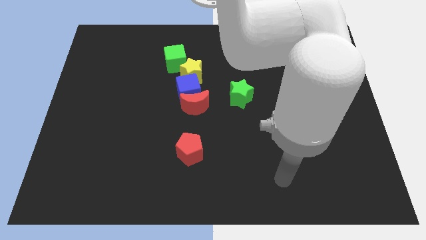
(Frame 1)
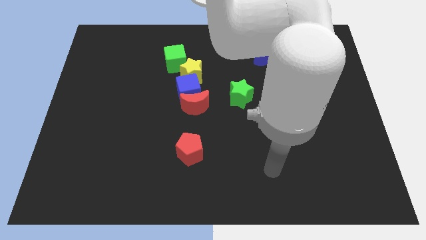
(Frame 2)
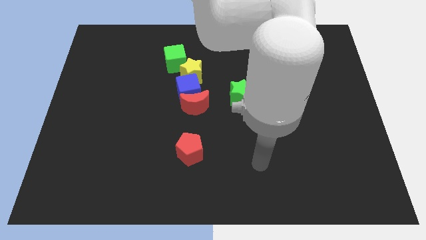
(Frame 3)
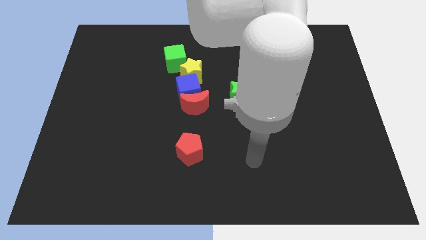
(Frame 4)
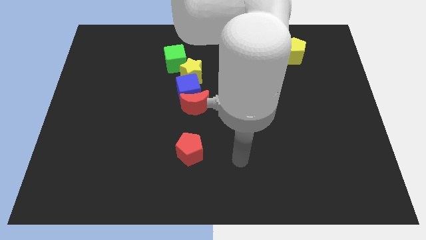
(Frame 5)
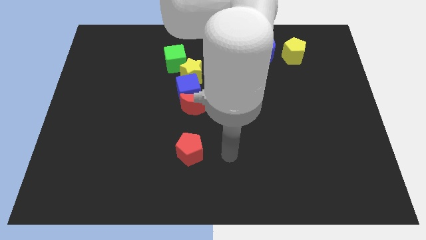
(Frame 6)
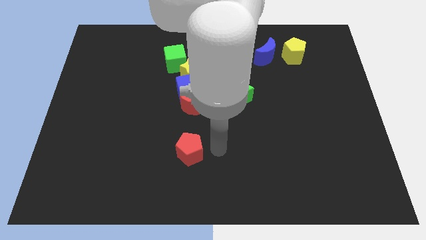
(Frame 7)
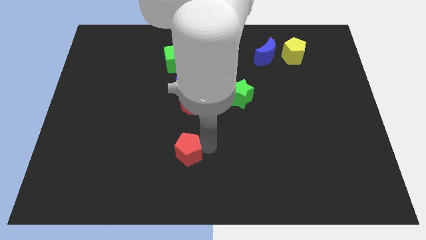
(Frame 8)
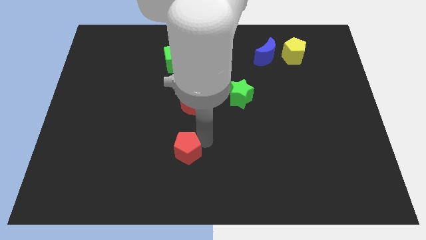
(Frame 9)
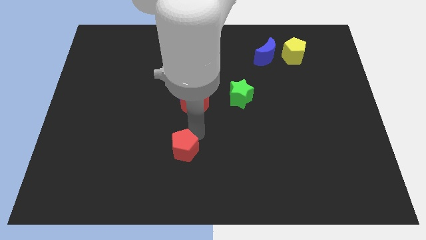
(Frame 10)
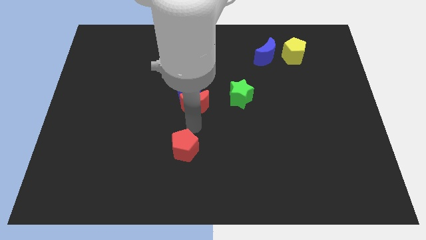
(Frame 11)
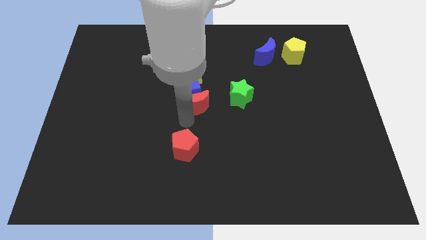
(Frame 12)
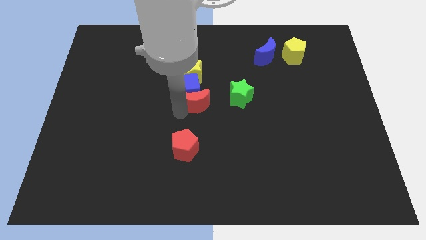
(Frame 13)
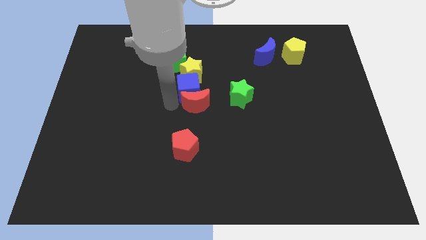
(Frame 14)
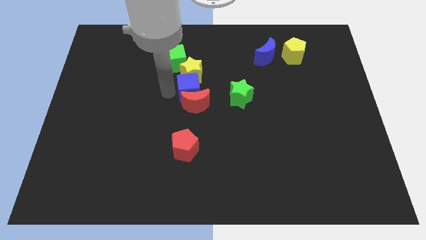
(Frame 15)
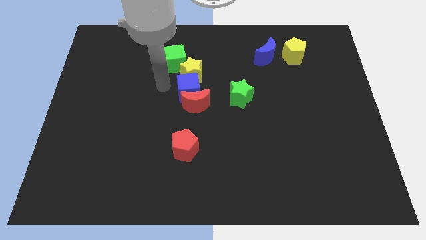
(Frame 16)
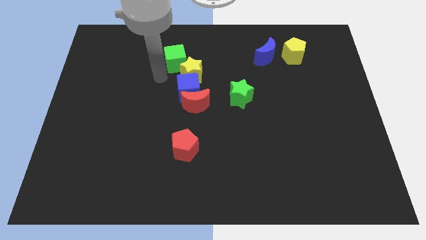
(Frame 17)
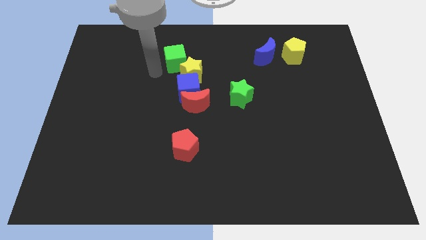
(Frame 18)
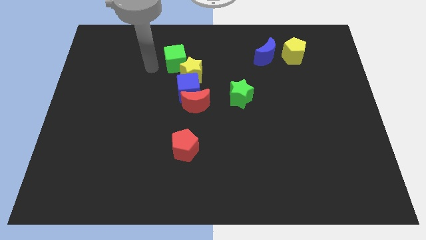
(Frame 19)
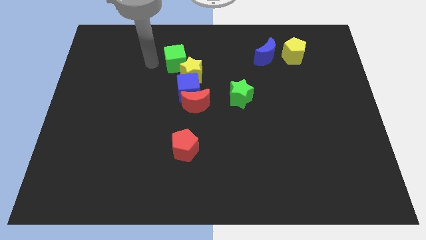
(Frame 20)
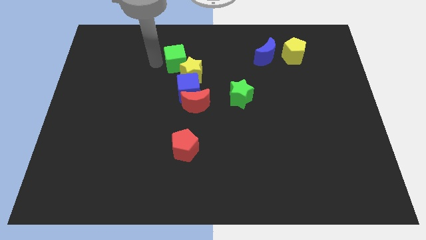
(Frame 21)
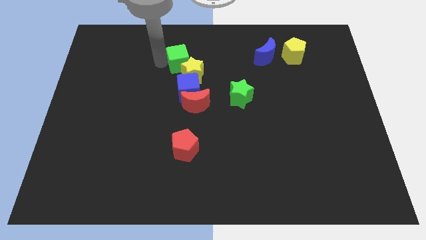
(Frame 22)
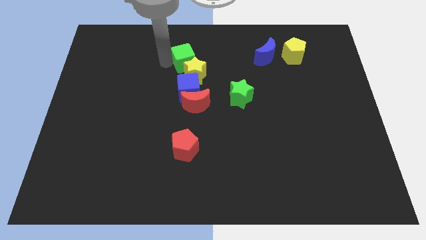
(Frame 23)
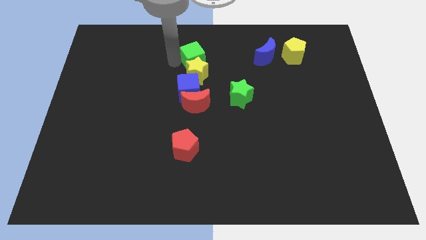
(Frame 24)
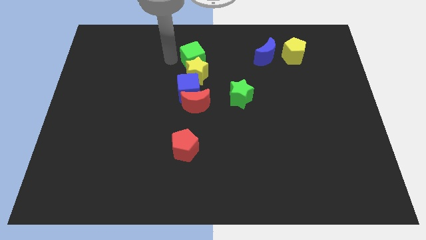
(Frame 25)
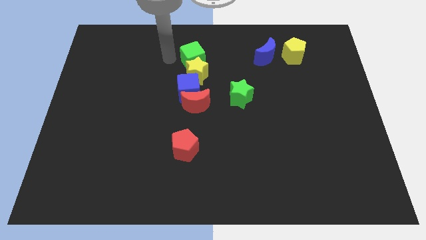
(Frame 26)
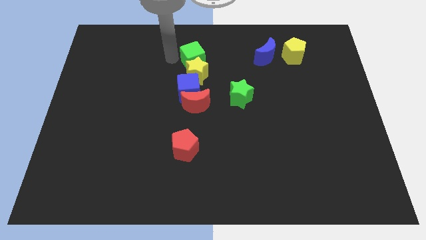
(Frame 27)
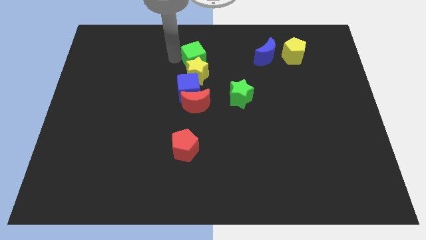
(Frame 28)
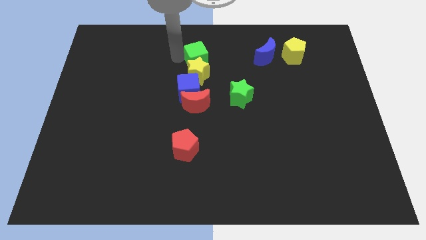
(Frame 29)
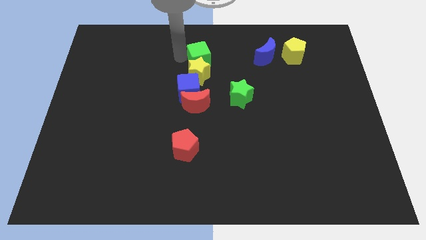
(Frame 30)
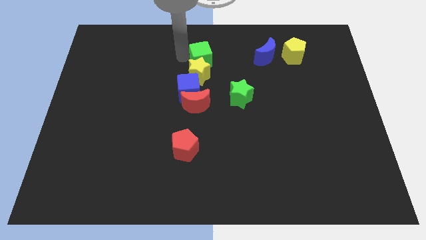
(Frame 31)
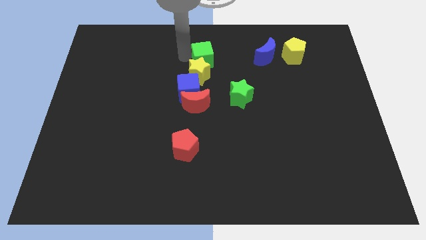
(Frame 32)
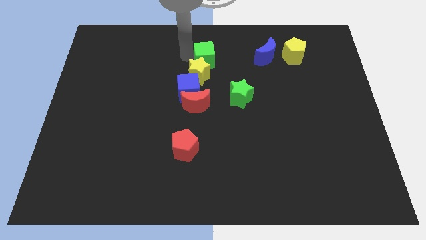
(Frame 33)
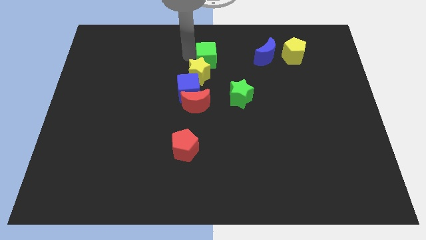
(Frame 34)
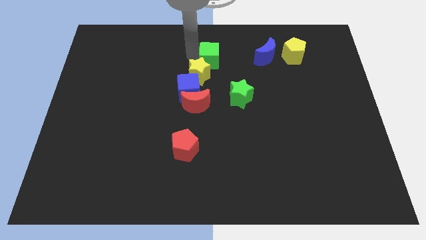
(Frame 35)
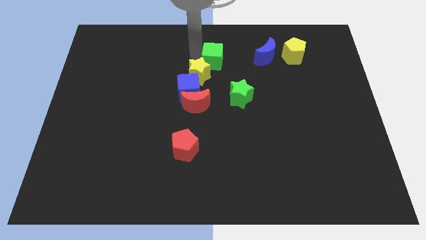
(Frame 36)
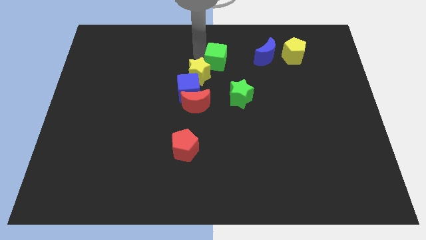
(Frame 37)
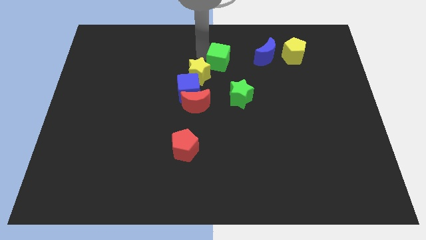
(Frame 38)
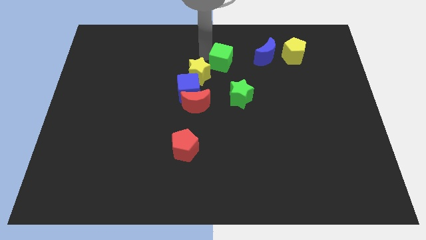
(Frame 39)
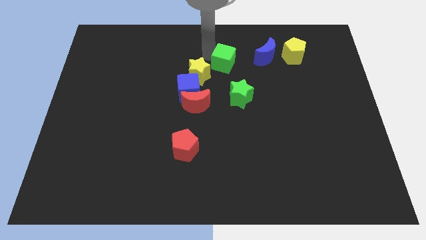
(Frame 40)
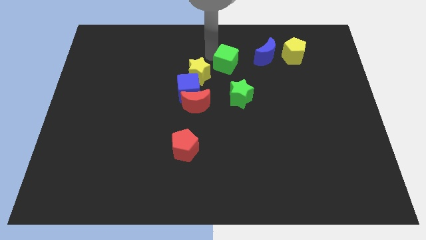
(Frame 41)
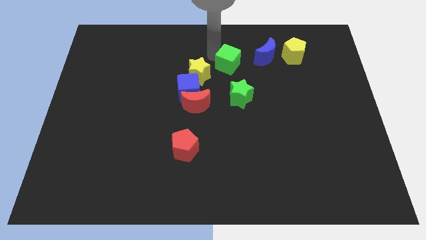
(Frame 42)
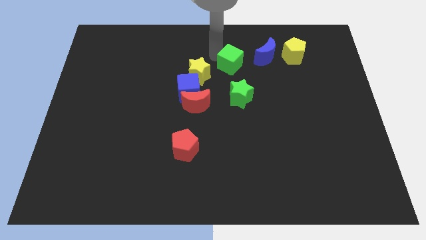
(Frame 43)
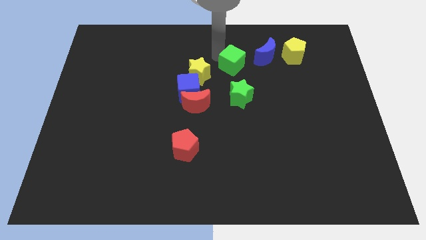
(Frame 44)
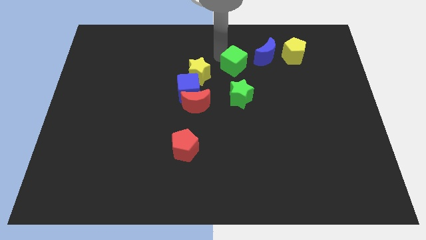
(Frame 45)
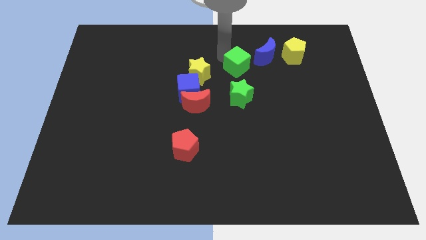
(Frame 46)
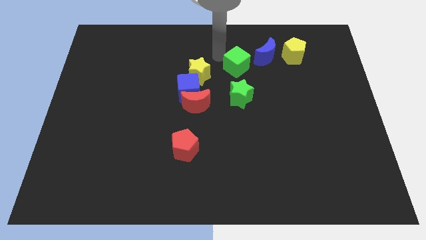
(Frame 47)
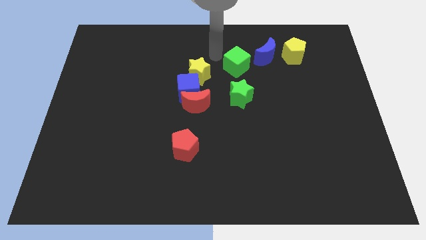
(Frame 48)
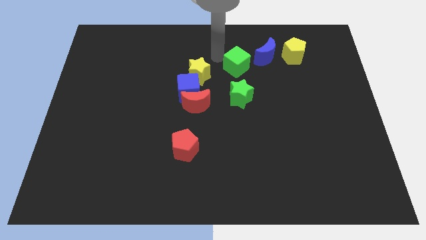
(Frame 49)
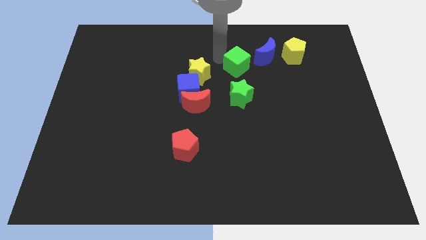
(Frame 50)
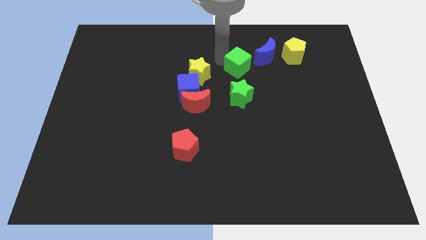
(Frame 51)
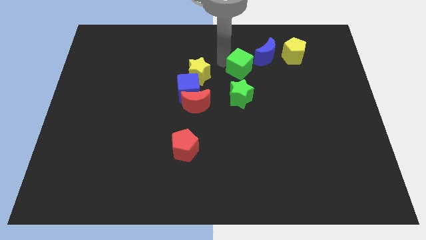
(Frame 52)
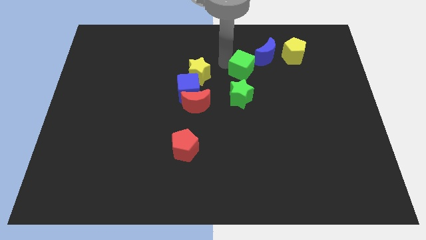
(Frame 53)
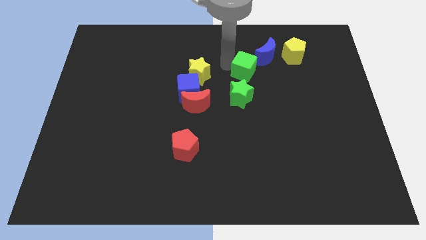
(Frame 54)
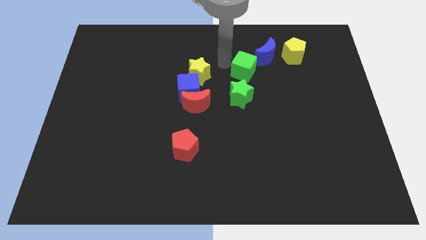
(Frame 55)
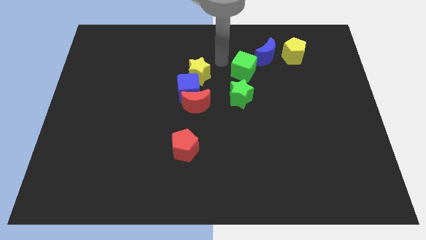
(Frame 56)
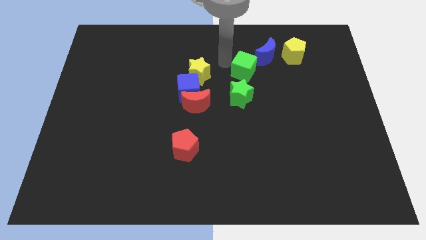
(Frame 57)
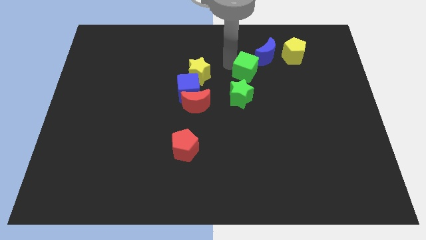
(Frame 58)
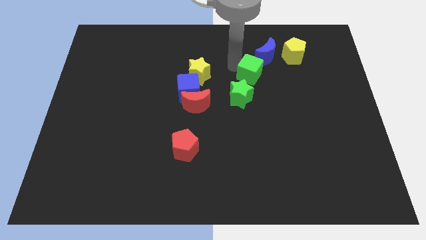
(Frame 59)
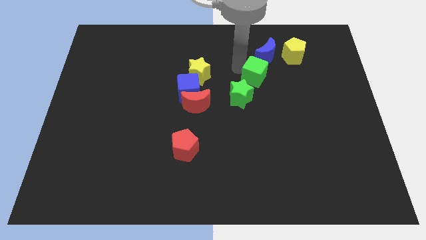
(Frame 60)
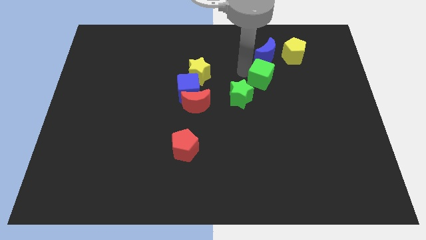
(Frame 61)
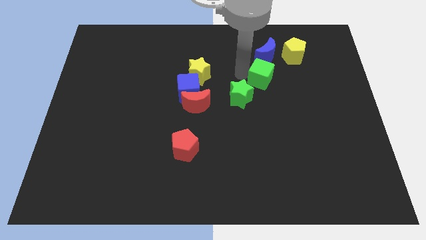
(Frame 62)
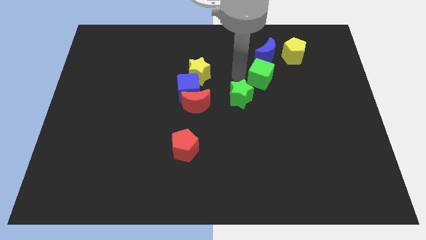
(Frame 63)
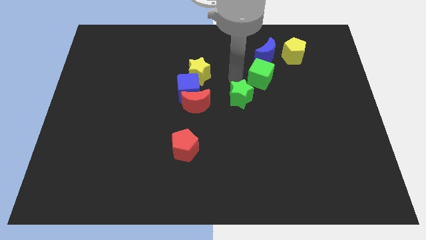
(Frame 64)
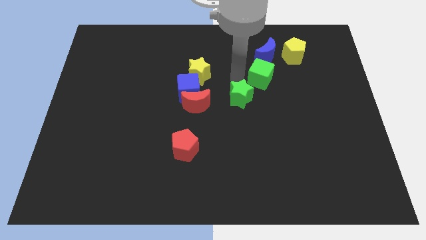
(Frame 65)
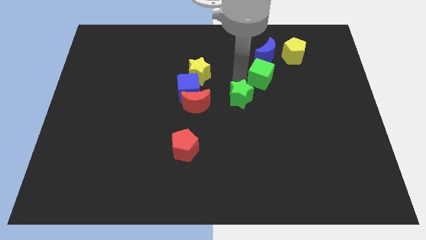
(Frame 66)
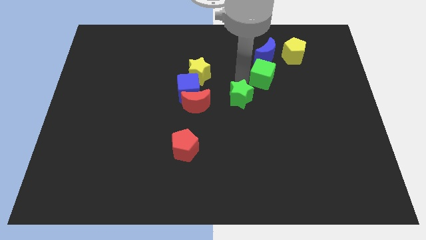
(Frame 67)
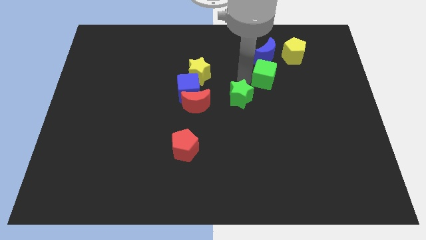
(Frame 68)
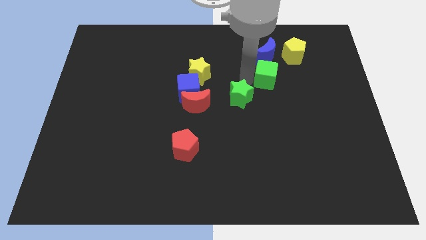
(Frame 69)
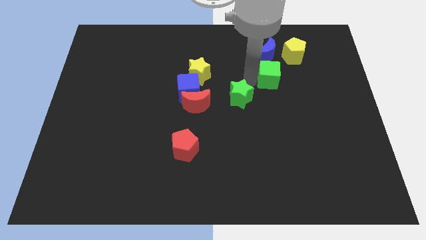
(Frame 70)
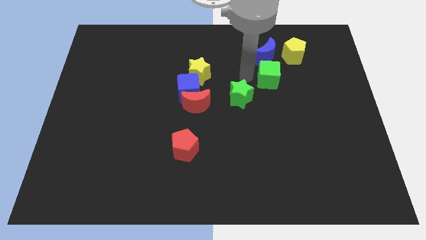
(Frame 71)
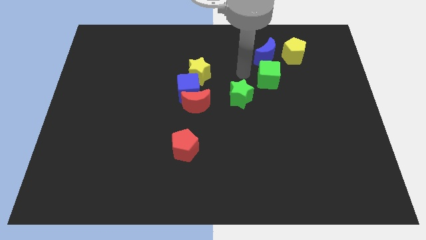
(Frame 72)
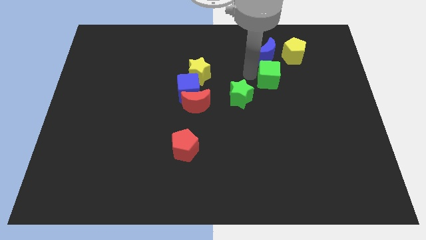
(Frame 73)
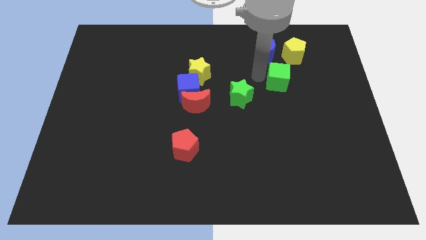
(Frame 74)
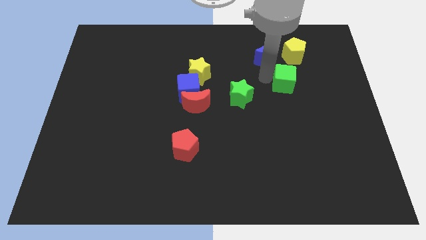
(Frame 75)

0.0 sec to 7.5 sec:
push the green cube to the bottom side of the yellow pentagon
